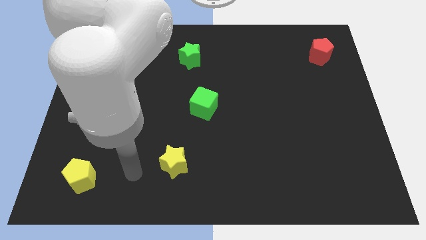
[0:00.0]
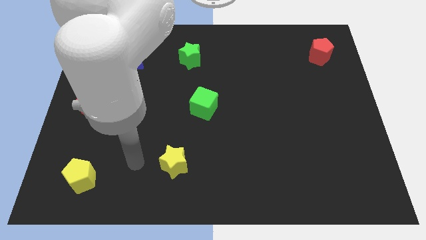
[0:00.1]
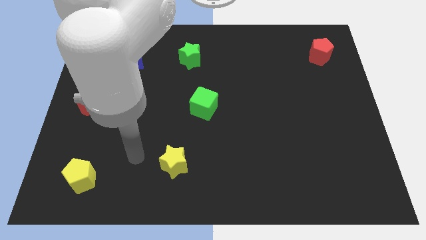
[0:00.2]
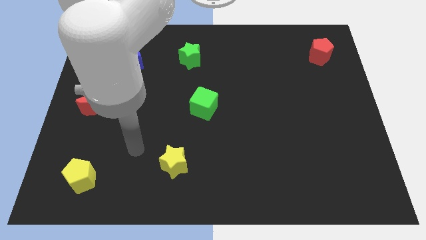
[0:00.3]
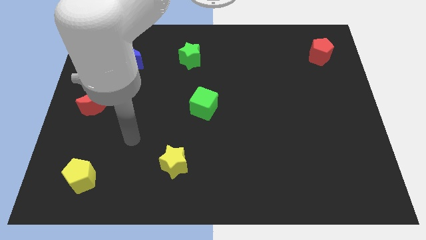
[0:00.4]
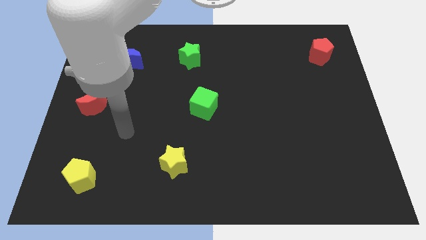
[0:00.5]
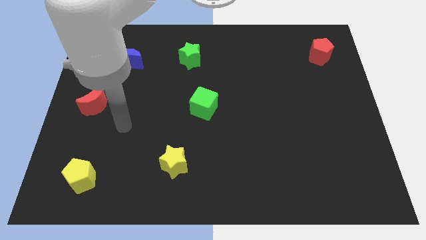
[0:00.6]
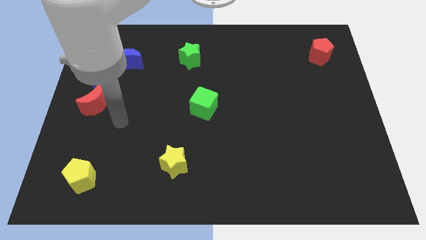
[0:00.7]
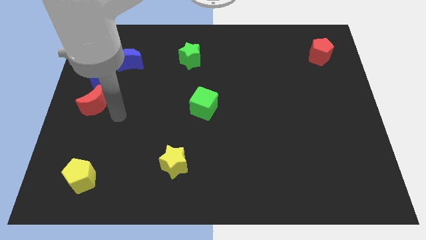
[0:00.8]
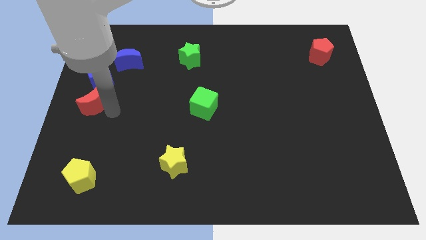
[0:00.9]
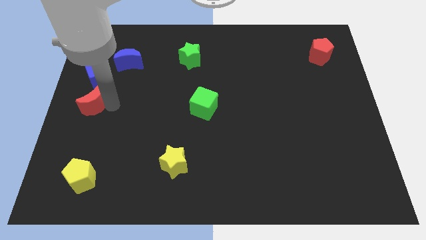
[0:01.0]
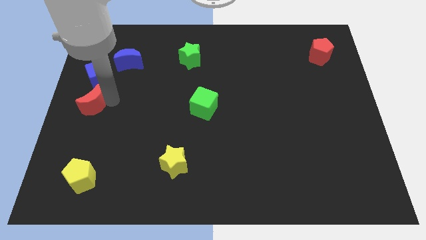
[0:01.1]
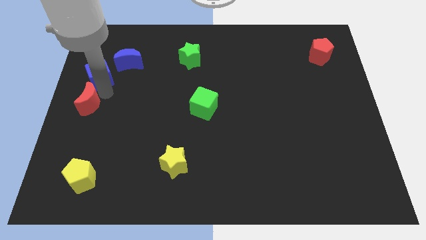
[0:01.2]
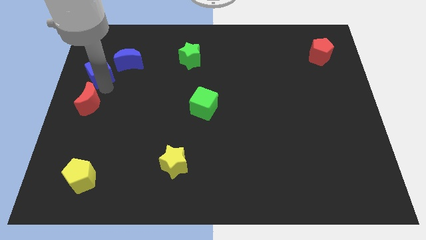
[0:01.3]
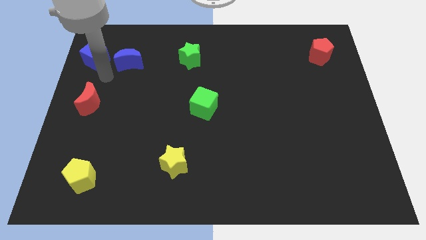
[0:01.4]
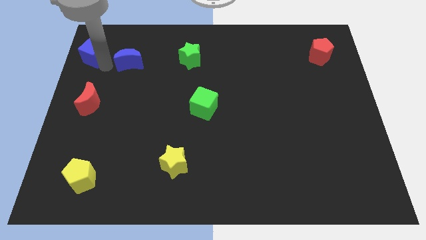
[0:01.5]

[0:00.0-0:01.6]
pull the blue moon apart from the blue cube

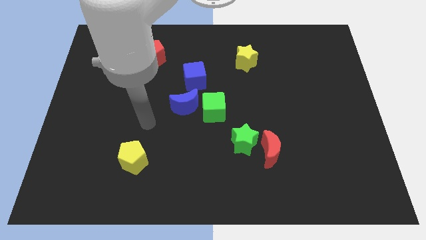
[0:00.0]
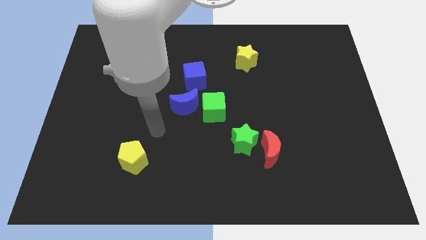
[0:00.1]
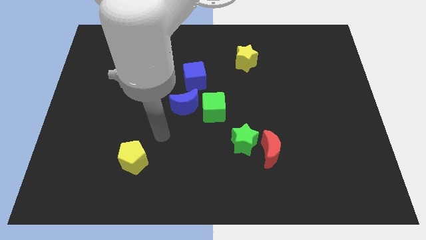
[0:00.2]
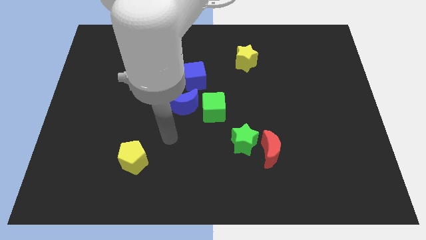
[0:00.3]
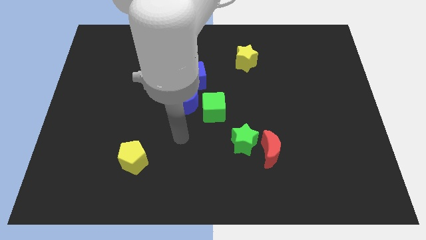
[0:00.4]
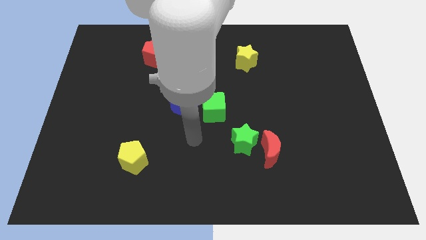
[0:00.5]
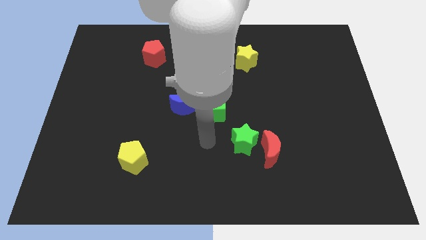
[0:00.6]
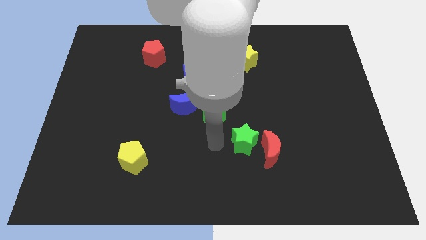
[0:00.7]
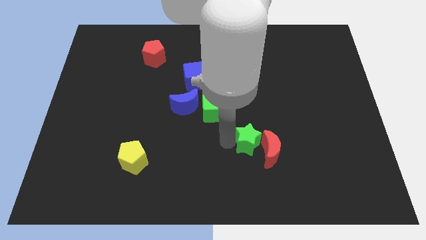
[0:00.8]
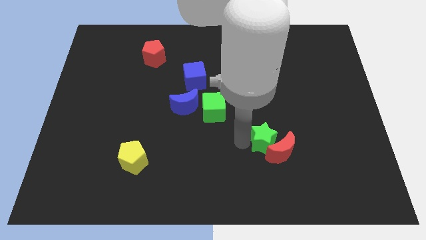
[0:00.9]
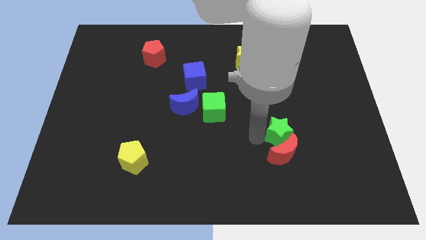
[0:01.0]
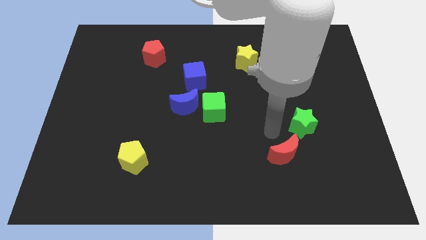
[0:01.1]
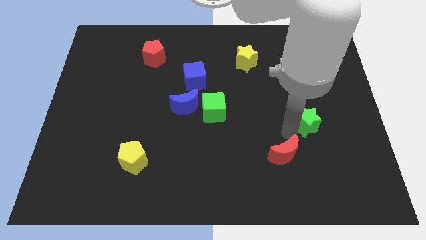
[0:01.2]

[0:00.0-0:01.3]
move the red moon away from the green star

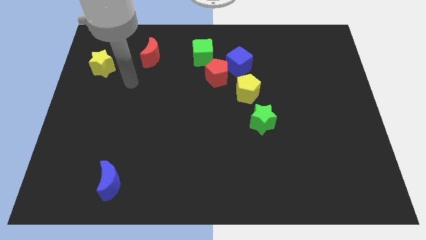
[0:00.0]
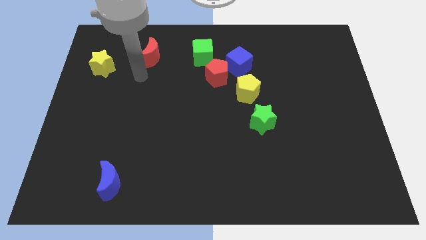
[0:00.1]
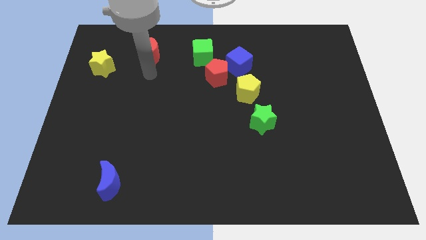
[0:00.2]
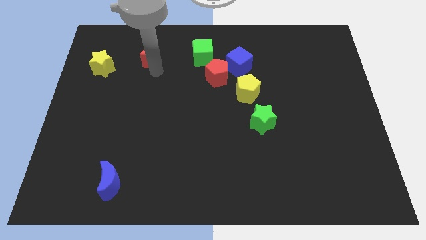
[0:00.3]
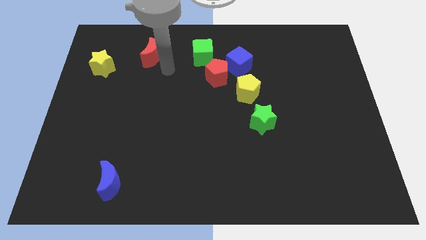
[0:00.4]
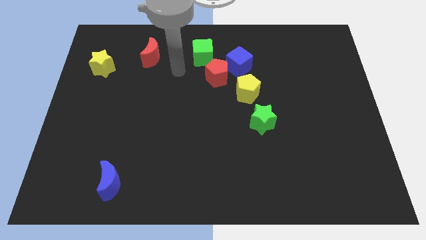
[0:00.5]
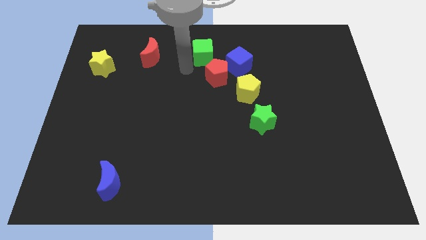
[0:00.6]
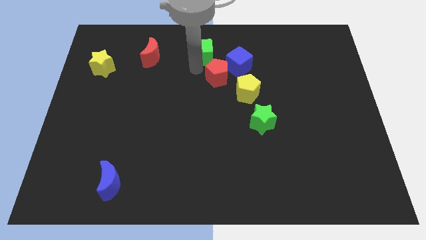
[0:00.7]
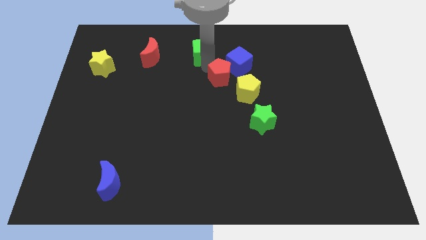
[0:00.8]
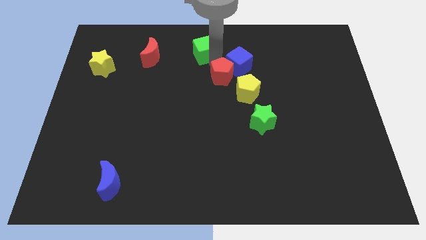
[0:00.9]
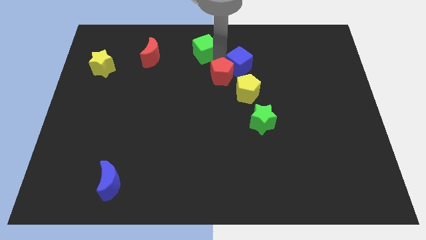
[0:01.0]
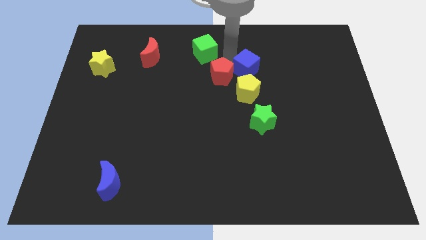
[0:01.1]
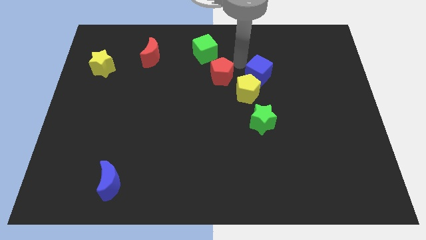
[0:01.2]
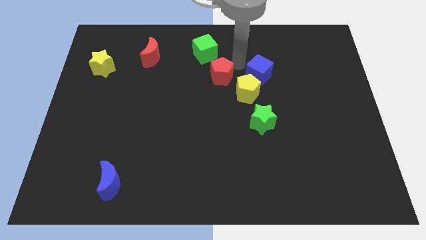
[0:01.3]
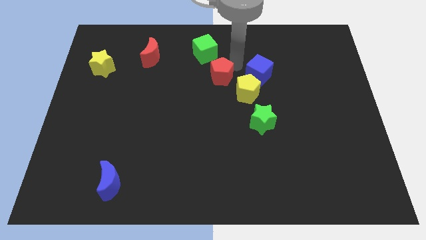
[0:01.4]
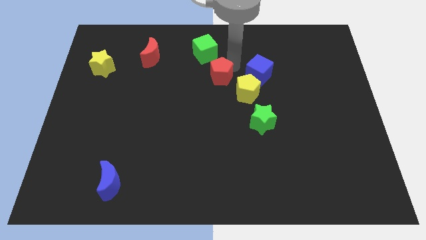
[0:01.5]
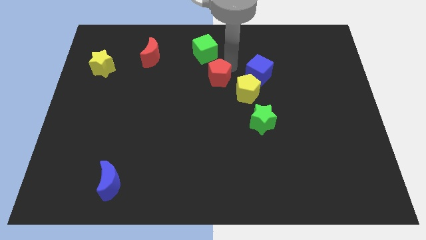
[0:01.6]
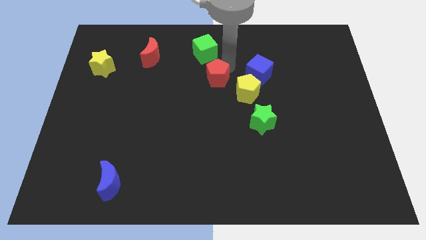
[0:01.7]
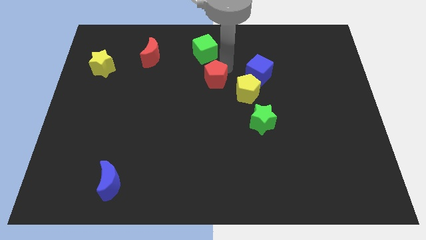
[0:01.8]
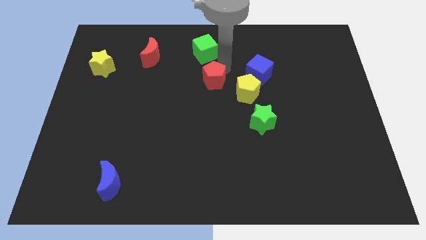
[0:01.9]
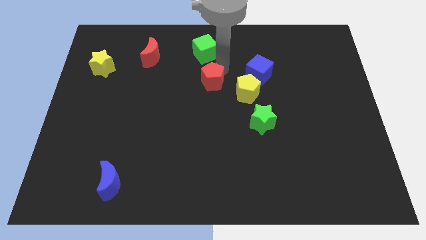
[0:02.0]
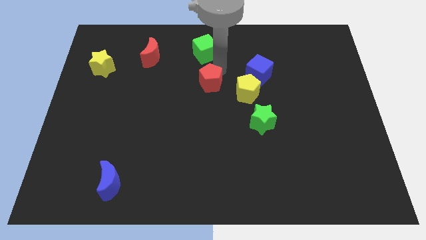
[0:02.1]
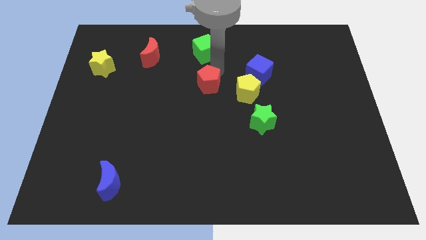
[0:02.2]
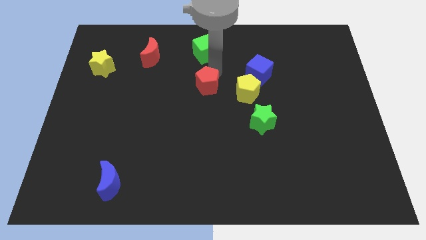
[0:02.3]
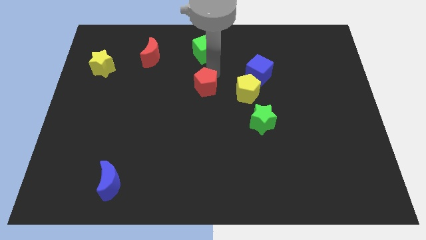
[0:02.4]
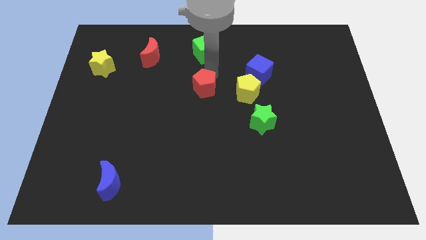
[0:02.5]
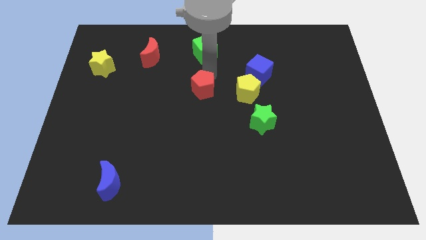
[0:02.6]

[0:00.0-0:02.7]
separate the red pentagon from the clump

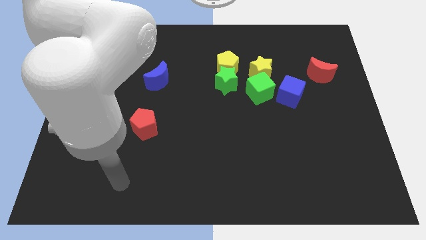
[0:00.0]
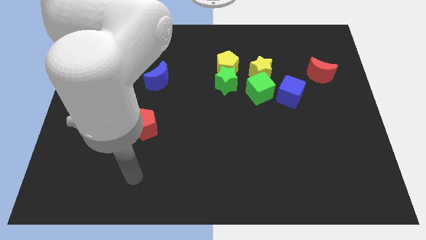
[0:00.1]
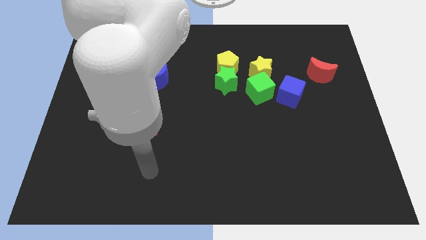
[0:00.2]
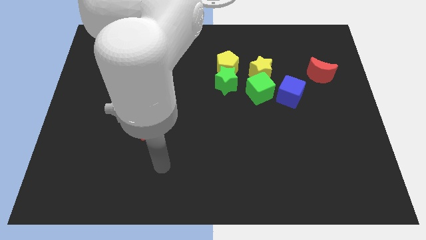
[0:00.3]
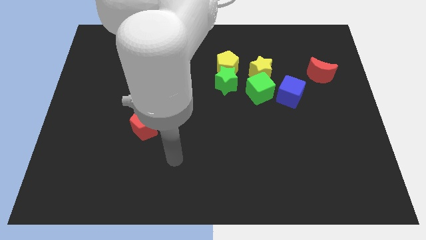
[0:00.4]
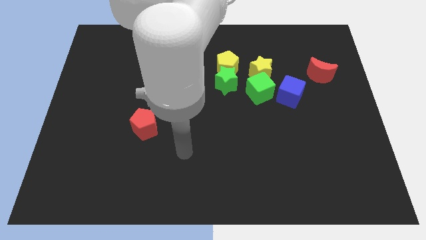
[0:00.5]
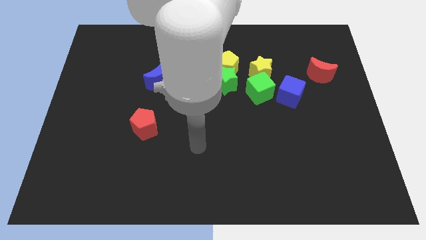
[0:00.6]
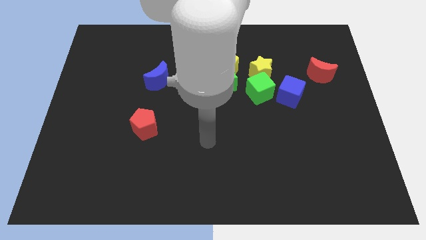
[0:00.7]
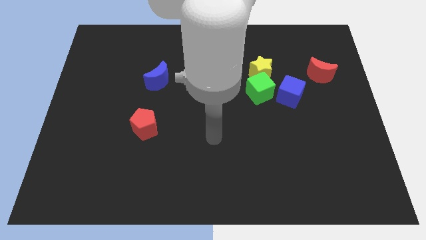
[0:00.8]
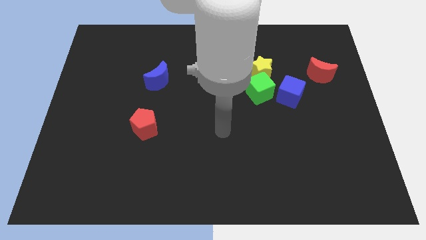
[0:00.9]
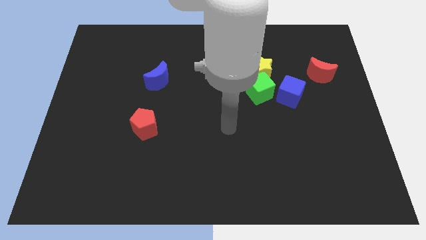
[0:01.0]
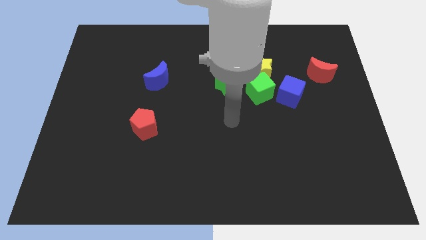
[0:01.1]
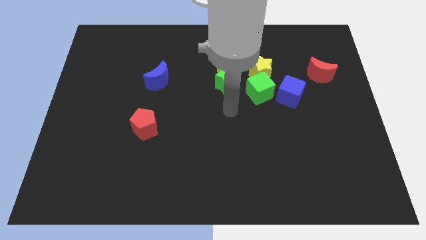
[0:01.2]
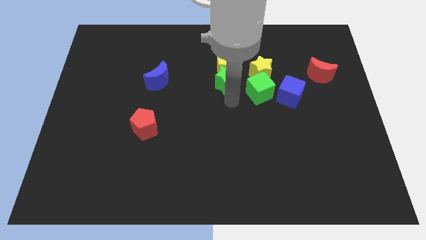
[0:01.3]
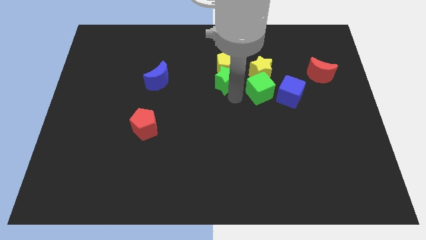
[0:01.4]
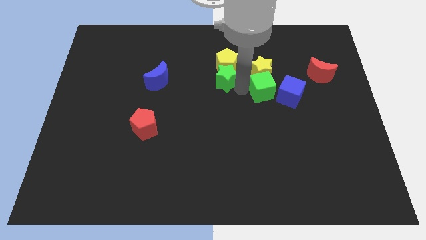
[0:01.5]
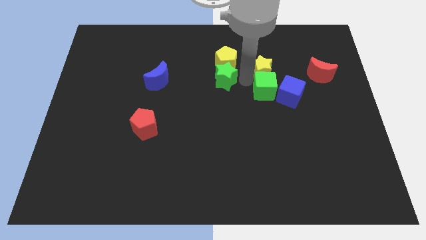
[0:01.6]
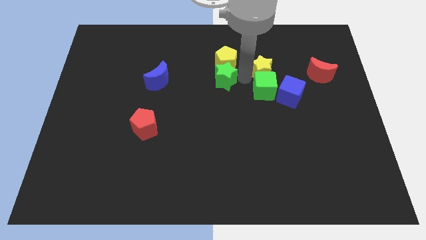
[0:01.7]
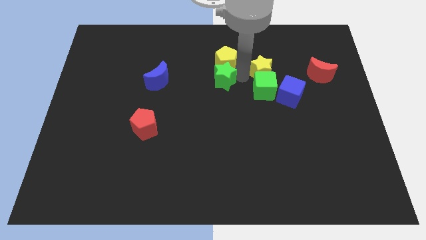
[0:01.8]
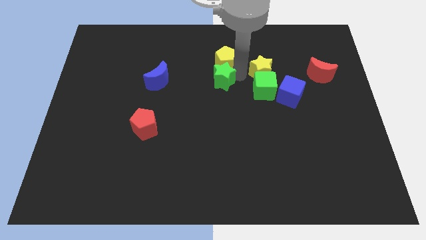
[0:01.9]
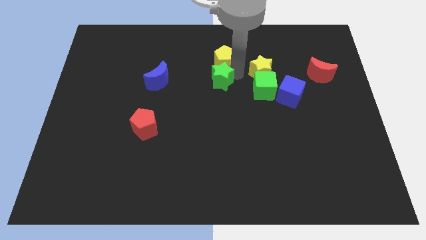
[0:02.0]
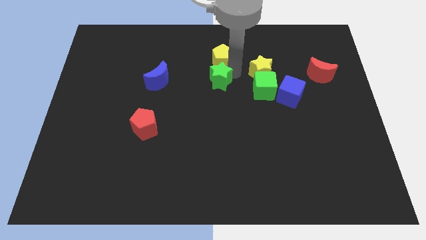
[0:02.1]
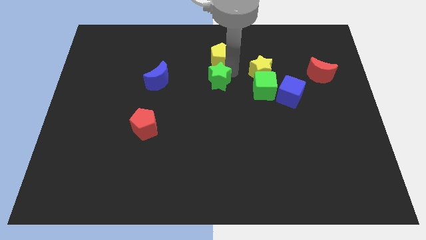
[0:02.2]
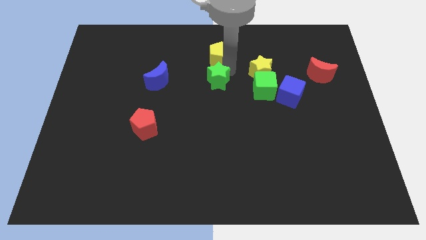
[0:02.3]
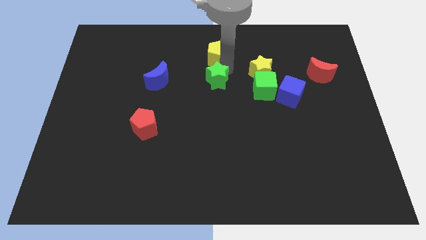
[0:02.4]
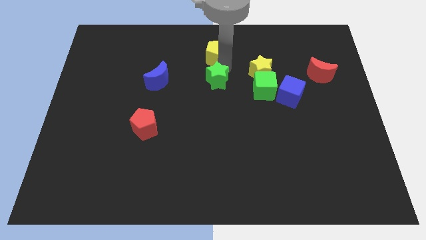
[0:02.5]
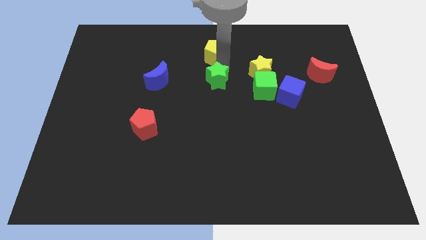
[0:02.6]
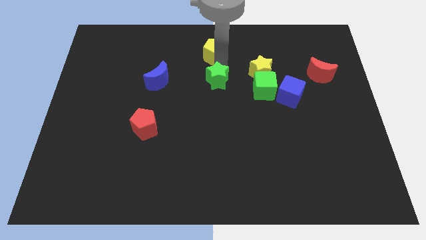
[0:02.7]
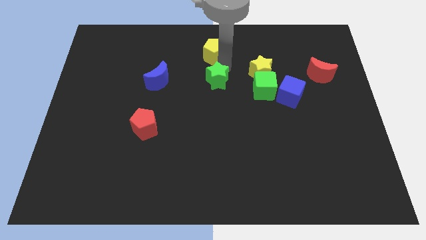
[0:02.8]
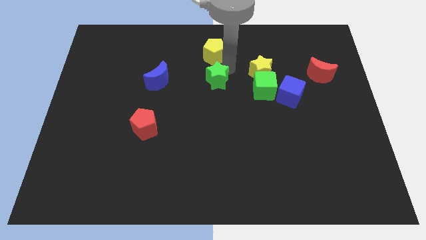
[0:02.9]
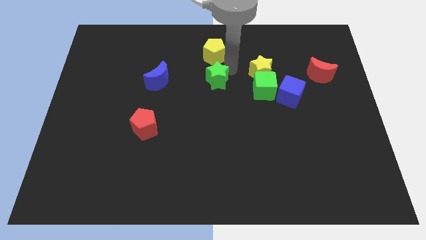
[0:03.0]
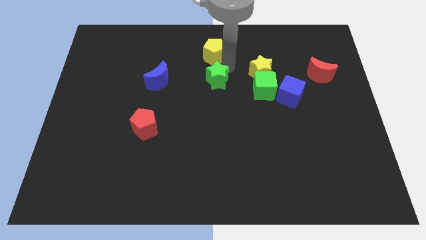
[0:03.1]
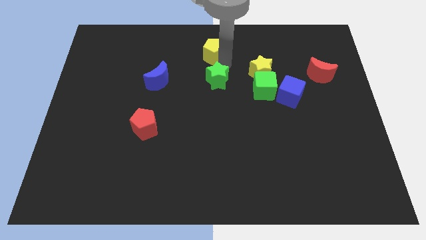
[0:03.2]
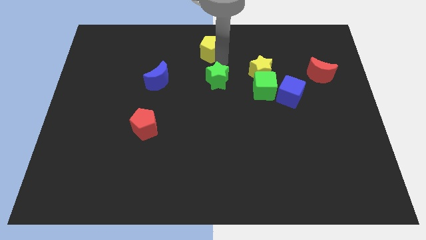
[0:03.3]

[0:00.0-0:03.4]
separate the yellow pentagon from the green star and yellow star

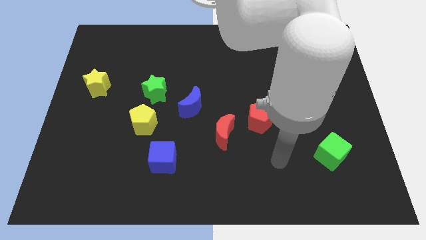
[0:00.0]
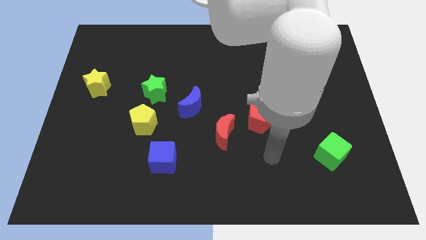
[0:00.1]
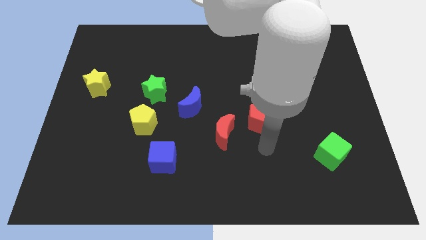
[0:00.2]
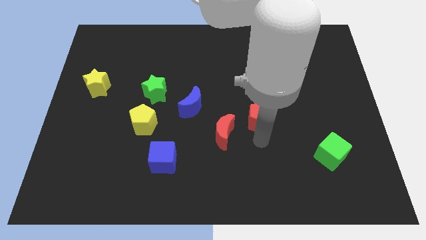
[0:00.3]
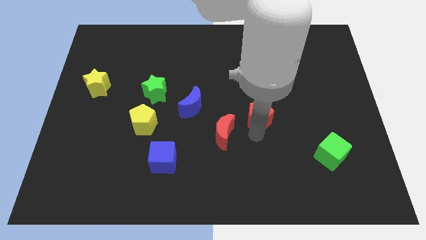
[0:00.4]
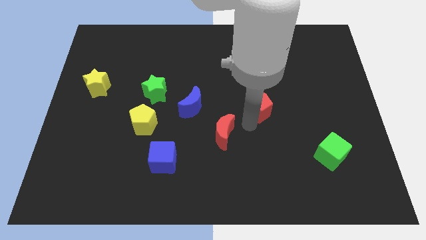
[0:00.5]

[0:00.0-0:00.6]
pull the red moon apart from the red pentagon
